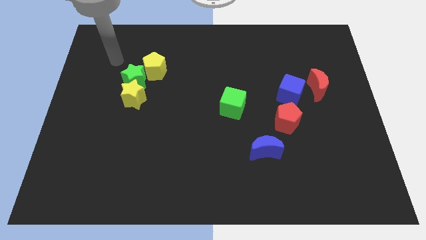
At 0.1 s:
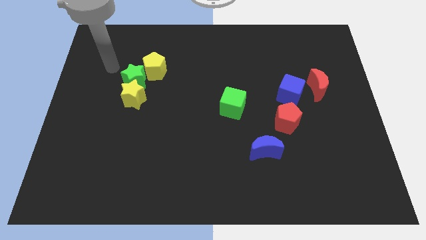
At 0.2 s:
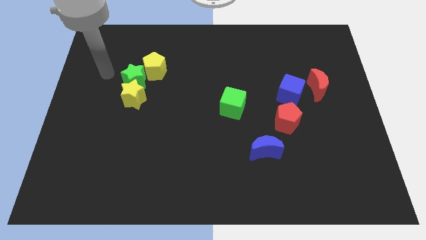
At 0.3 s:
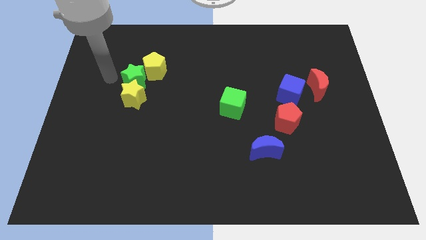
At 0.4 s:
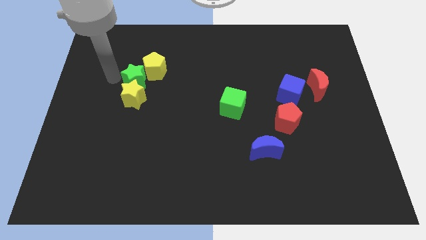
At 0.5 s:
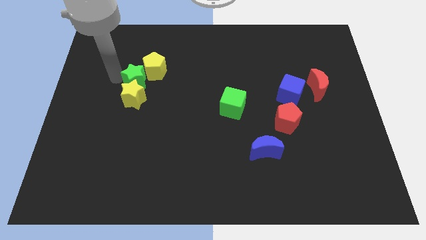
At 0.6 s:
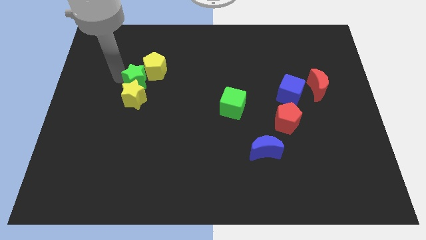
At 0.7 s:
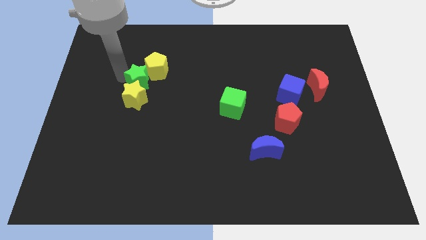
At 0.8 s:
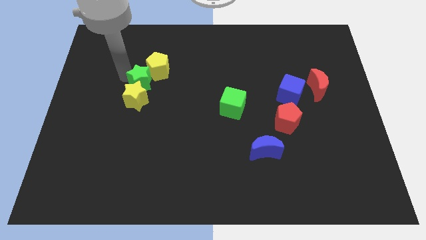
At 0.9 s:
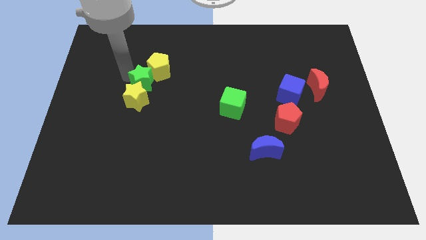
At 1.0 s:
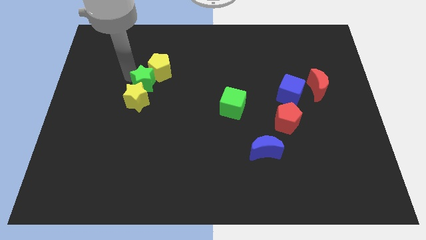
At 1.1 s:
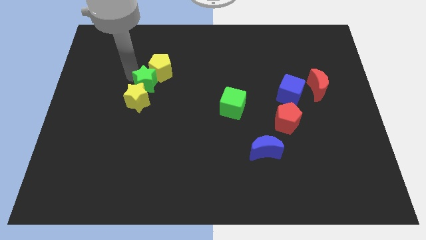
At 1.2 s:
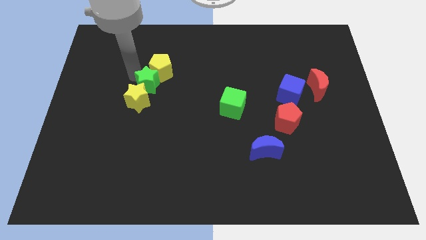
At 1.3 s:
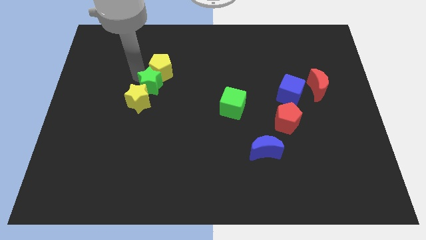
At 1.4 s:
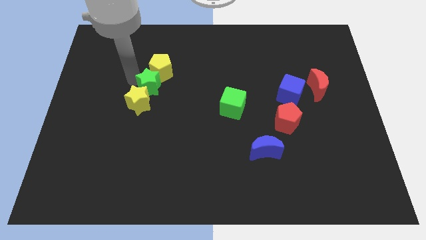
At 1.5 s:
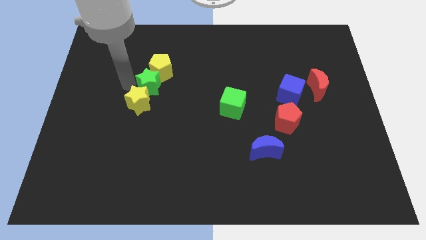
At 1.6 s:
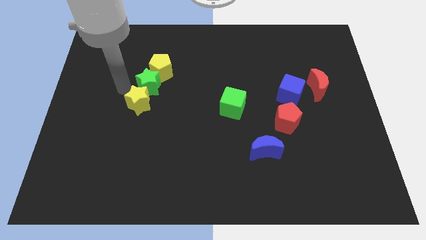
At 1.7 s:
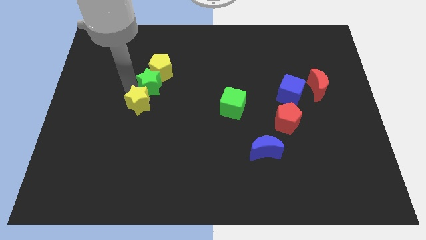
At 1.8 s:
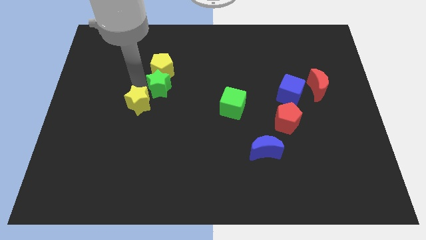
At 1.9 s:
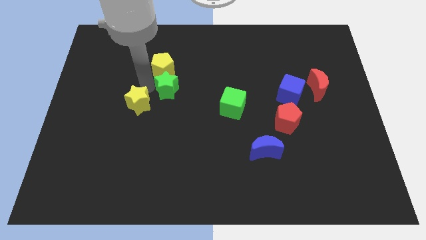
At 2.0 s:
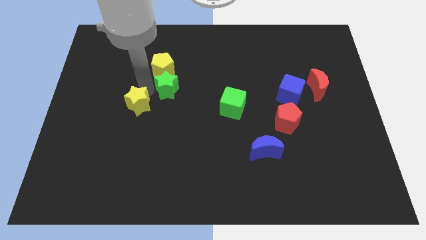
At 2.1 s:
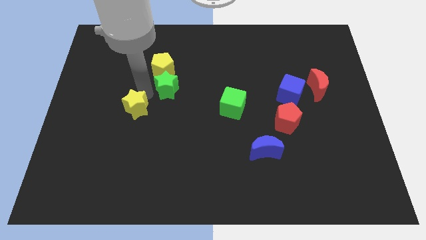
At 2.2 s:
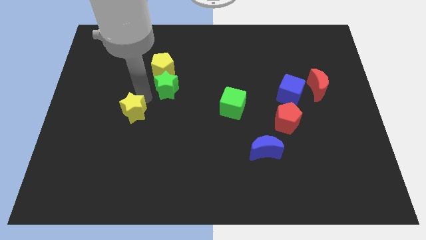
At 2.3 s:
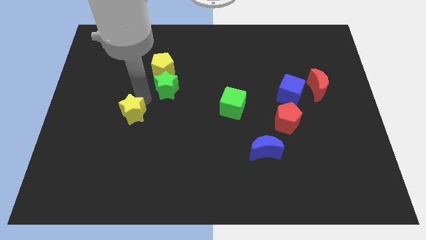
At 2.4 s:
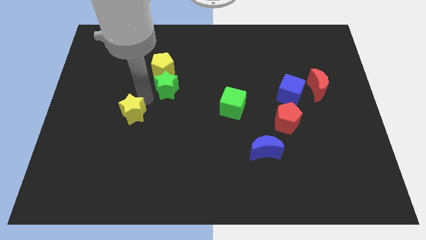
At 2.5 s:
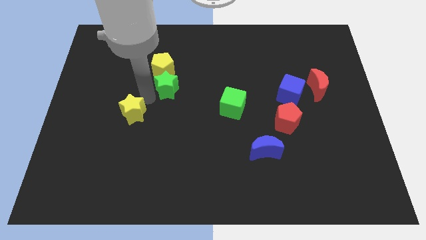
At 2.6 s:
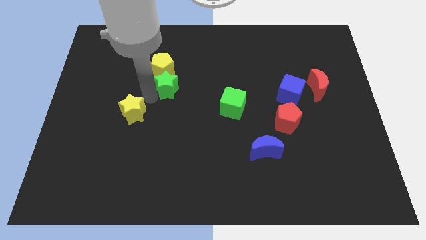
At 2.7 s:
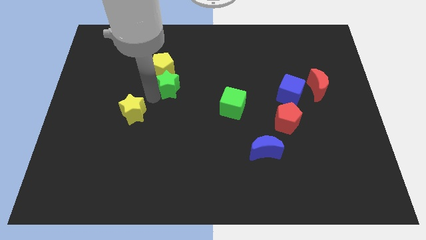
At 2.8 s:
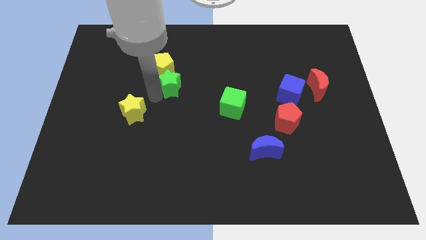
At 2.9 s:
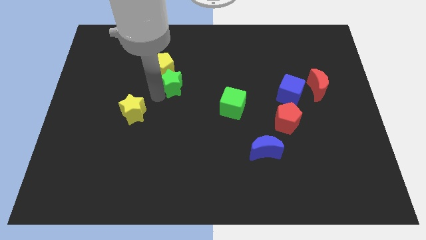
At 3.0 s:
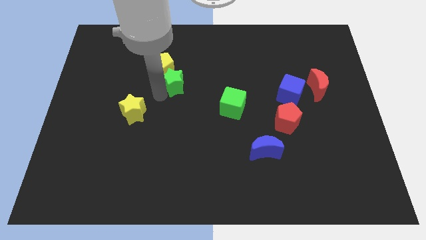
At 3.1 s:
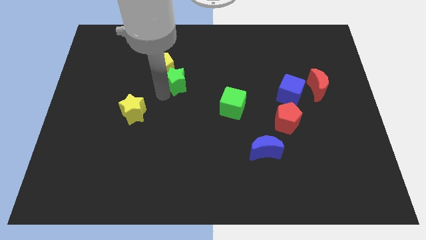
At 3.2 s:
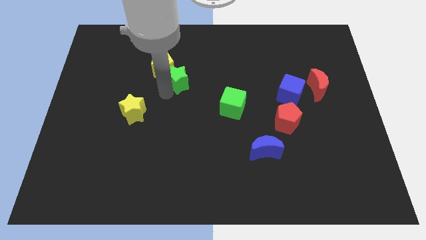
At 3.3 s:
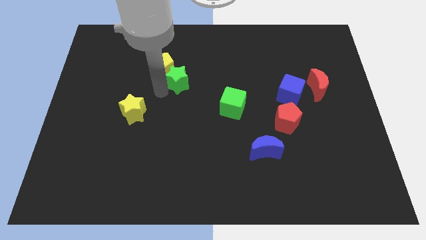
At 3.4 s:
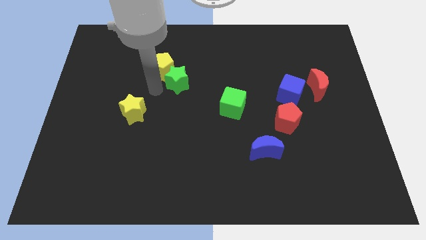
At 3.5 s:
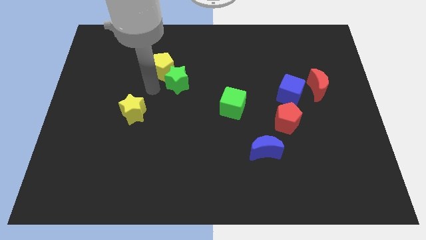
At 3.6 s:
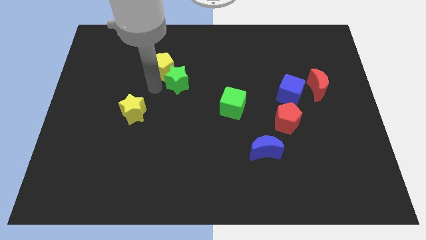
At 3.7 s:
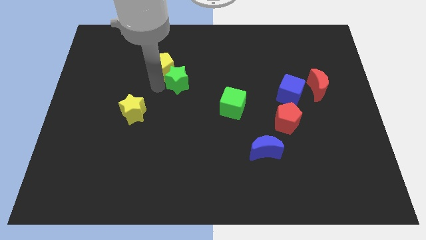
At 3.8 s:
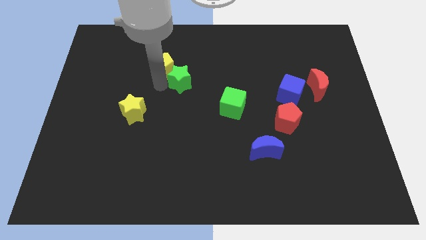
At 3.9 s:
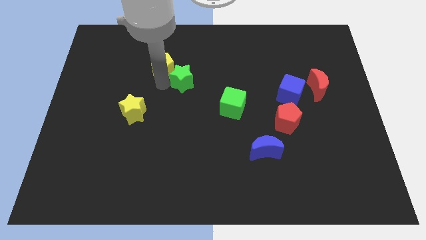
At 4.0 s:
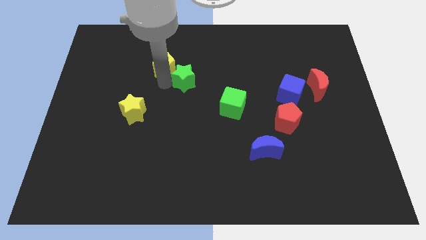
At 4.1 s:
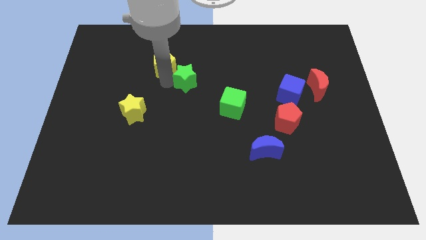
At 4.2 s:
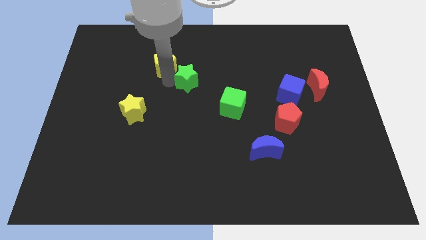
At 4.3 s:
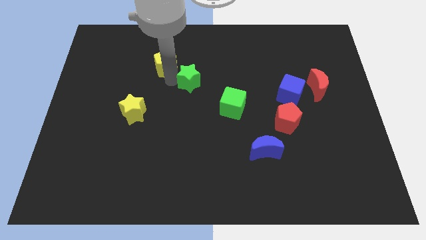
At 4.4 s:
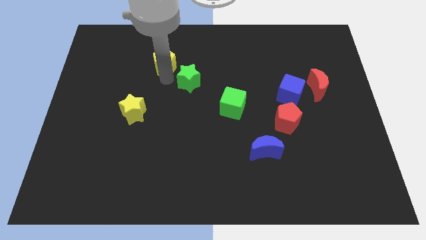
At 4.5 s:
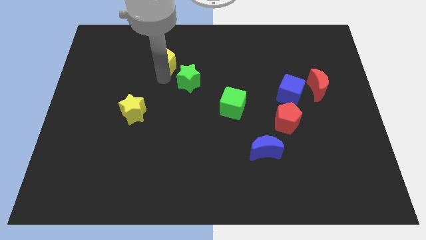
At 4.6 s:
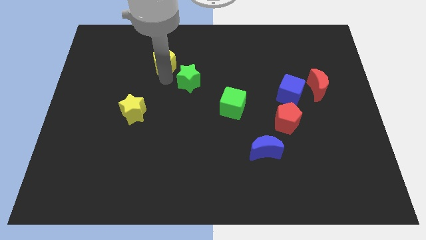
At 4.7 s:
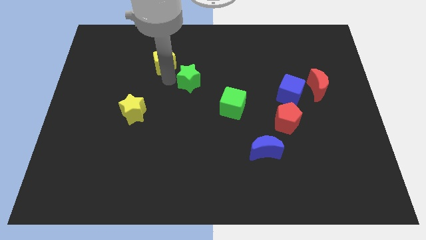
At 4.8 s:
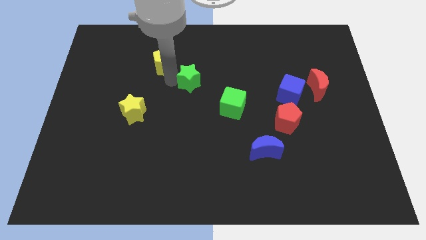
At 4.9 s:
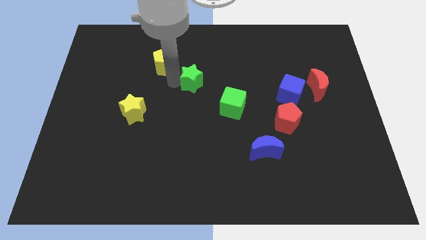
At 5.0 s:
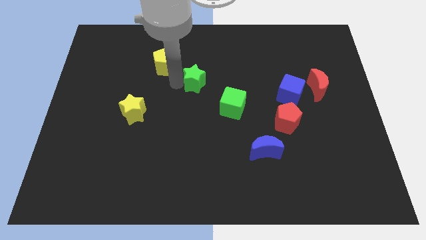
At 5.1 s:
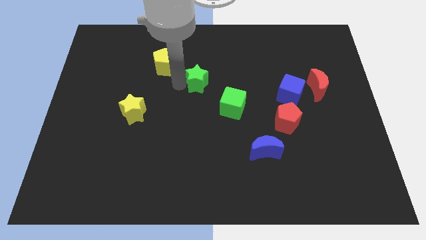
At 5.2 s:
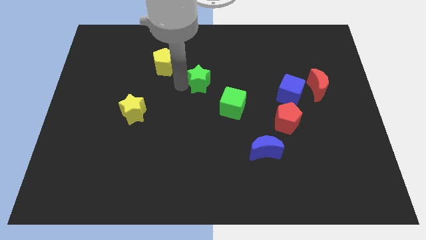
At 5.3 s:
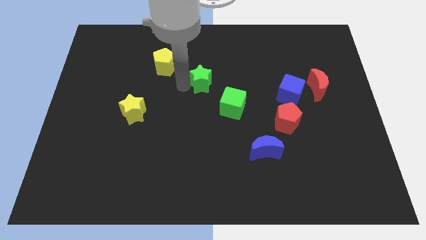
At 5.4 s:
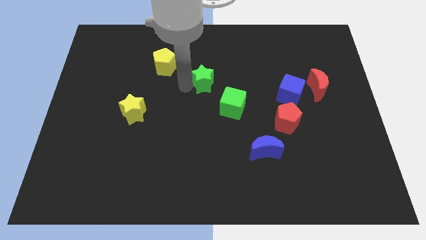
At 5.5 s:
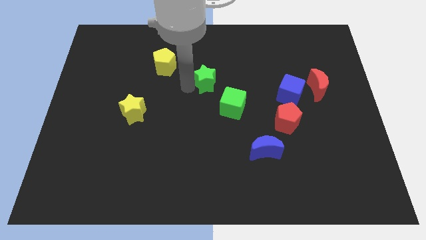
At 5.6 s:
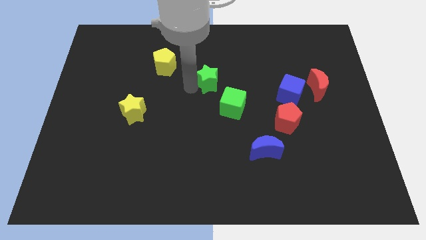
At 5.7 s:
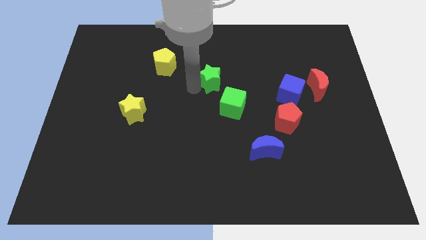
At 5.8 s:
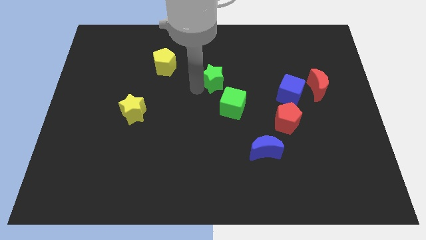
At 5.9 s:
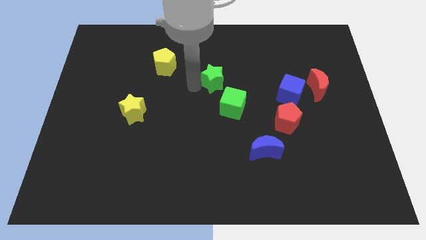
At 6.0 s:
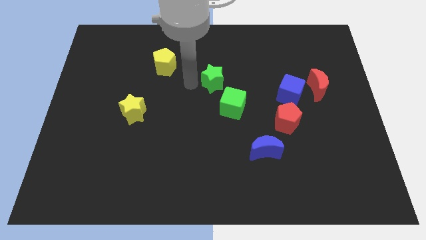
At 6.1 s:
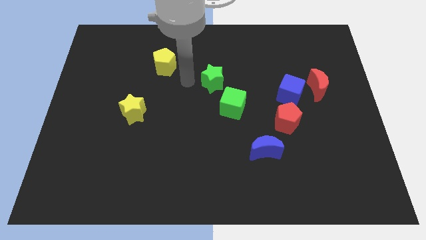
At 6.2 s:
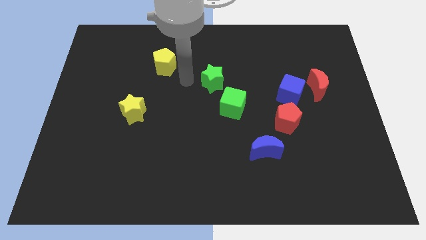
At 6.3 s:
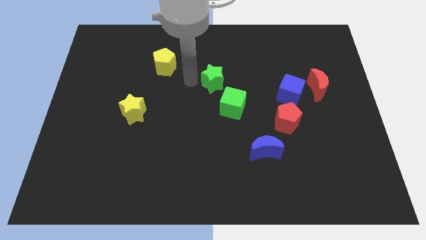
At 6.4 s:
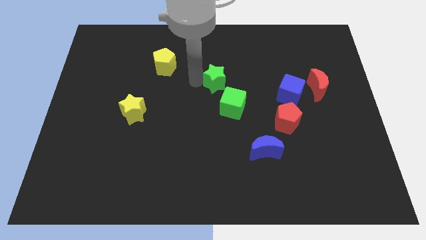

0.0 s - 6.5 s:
slide the green star right

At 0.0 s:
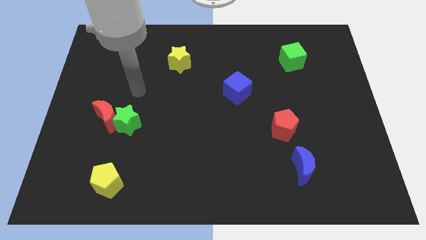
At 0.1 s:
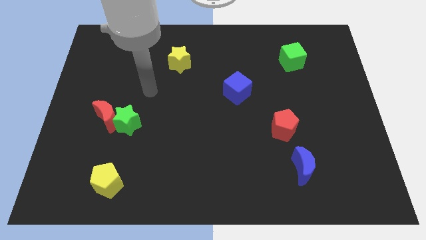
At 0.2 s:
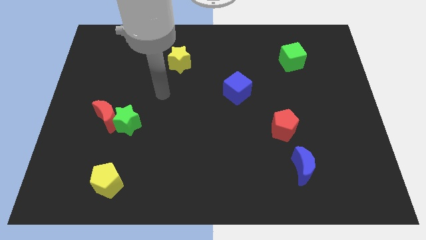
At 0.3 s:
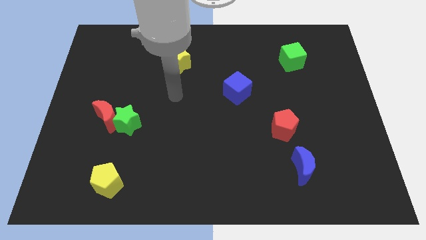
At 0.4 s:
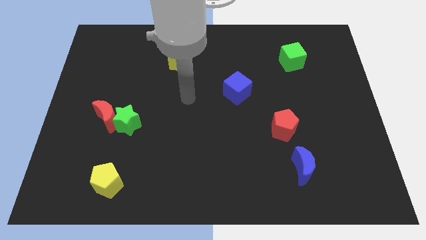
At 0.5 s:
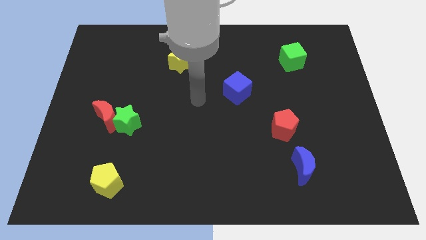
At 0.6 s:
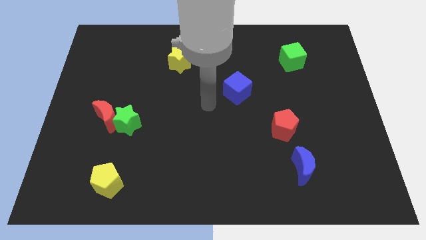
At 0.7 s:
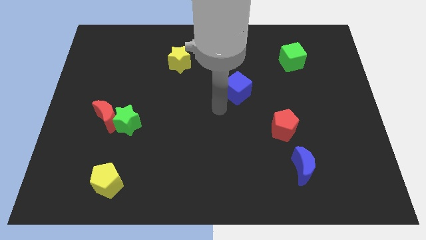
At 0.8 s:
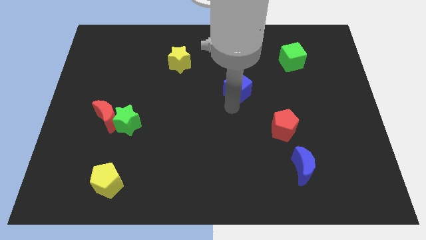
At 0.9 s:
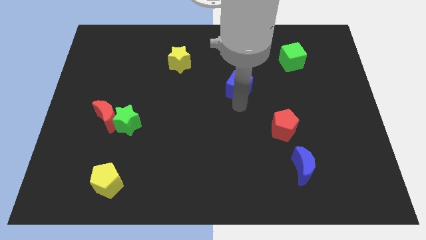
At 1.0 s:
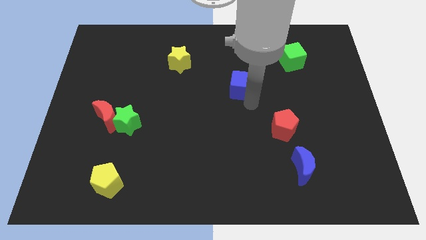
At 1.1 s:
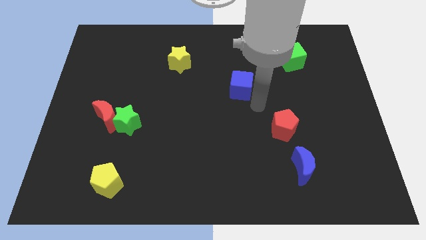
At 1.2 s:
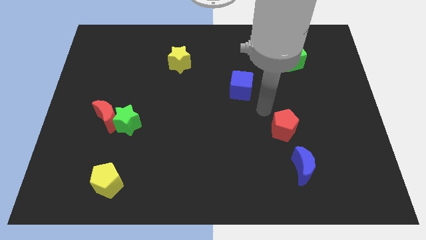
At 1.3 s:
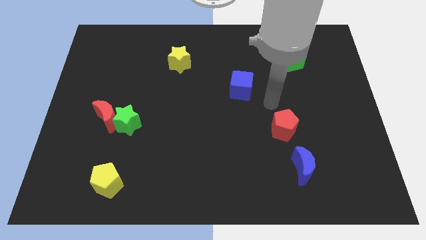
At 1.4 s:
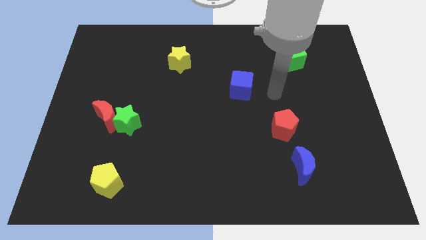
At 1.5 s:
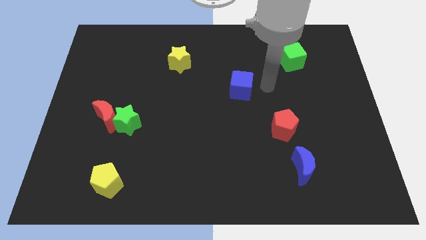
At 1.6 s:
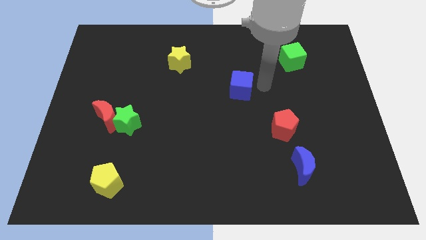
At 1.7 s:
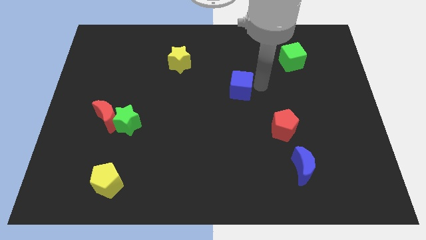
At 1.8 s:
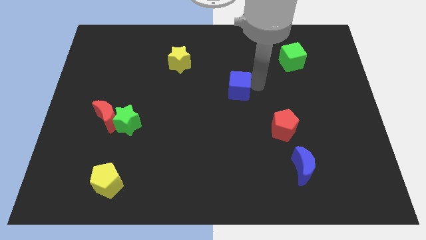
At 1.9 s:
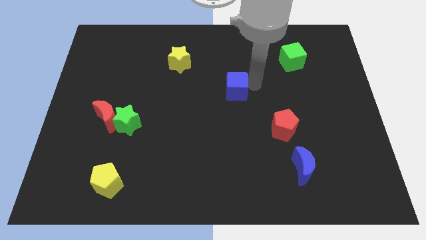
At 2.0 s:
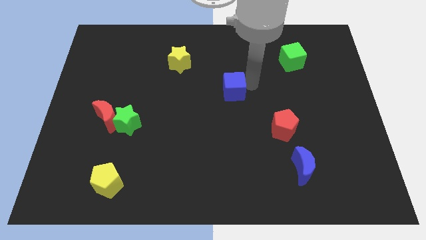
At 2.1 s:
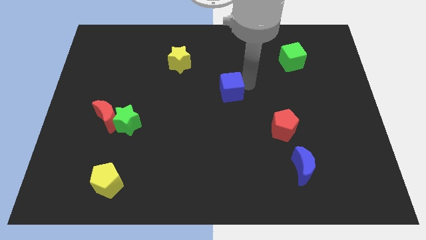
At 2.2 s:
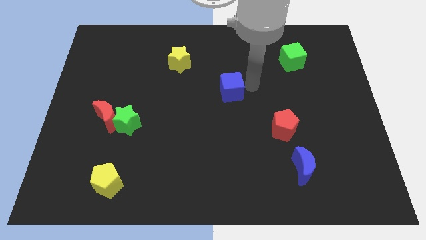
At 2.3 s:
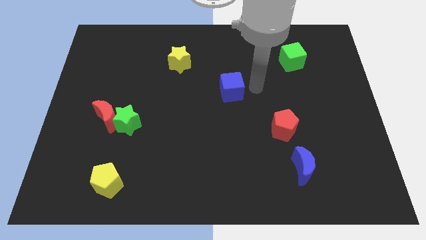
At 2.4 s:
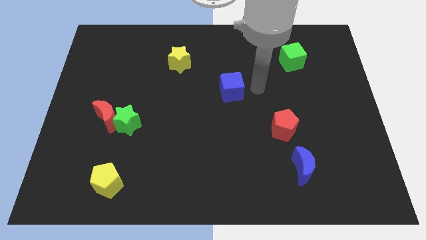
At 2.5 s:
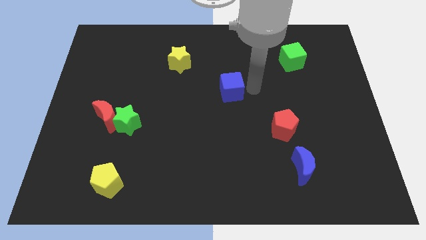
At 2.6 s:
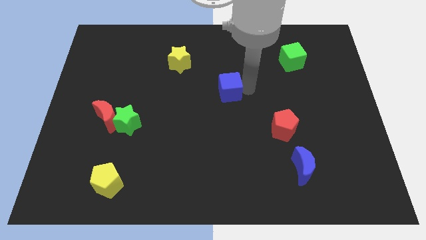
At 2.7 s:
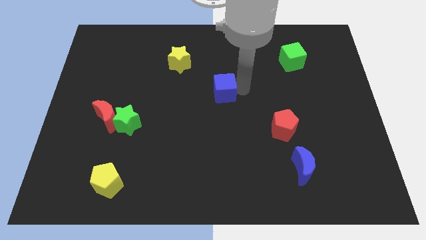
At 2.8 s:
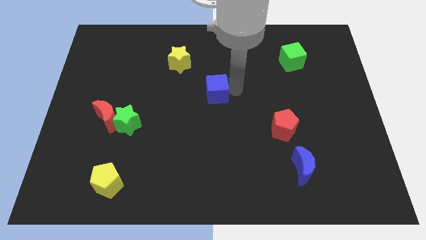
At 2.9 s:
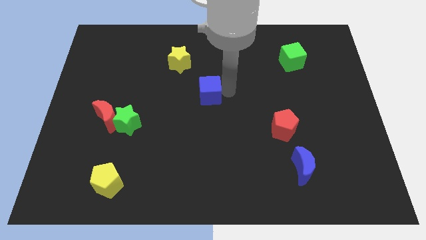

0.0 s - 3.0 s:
slightly move the blue cube to the left
